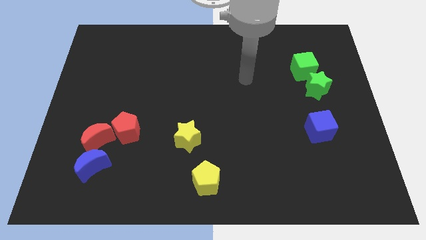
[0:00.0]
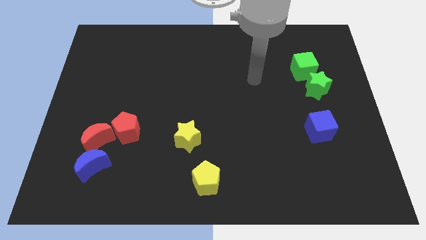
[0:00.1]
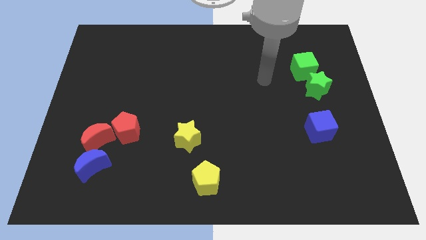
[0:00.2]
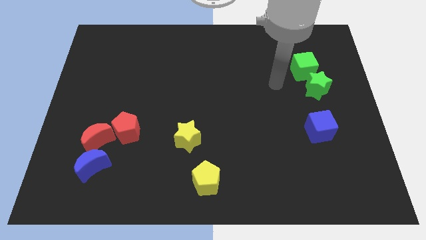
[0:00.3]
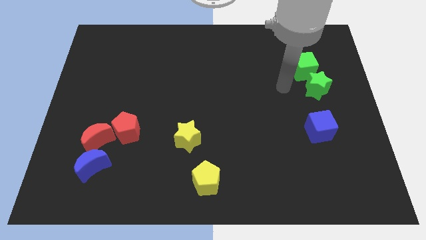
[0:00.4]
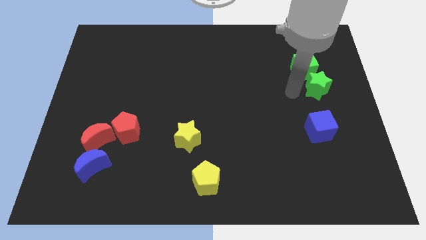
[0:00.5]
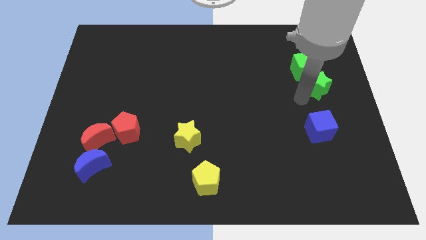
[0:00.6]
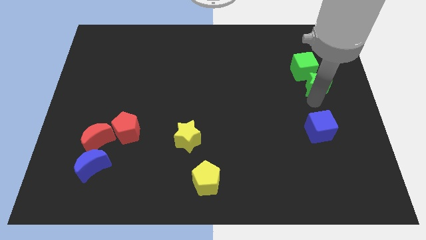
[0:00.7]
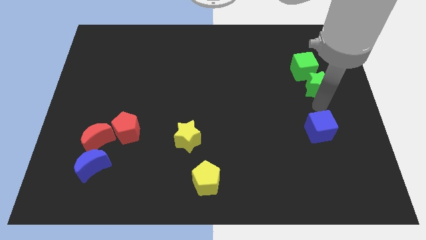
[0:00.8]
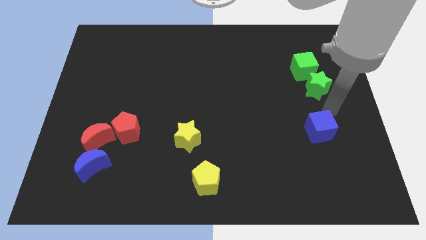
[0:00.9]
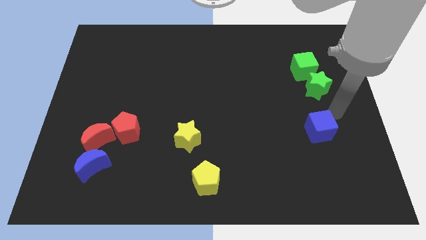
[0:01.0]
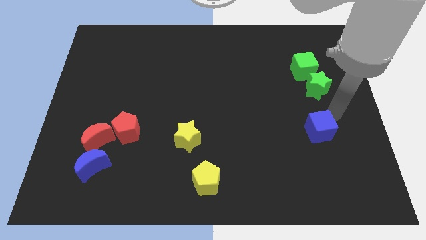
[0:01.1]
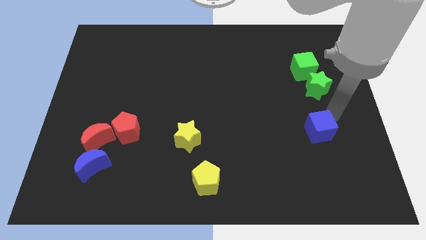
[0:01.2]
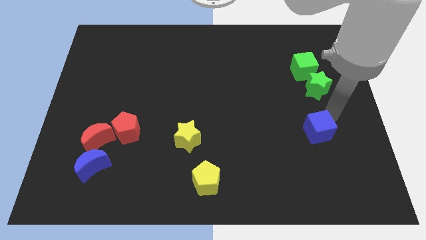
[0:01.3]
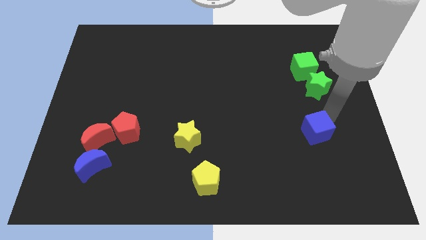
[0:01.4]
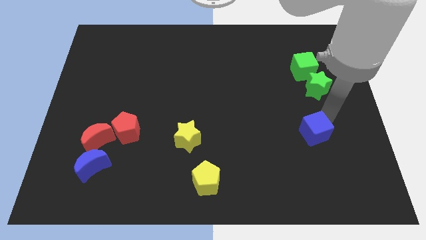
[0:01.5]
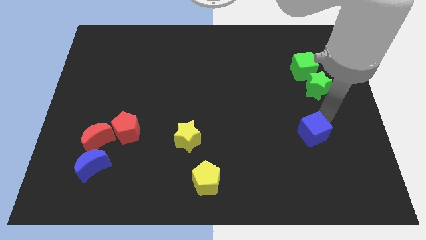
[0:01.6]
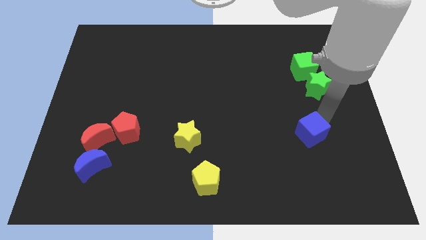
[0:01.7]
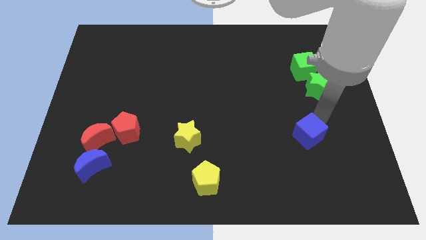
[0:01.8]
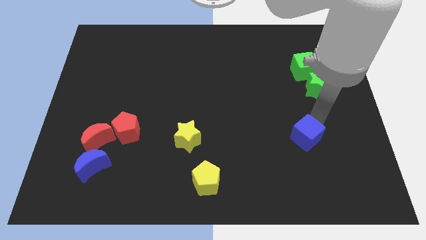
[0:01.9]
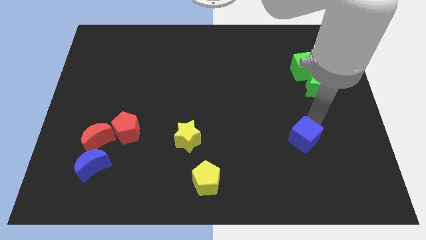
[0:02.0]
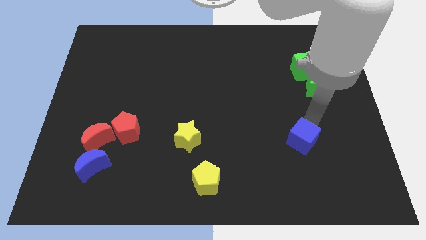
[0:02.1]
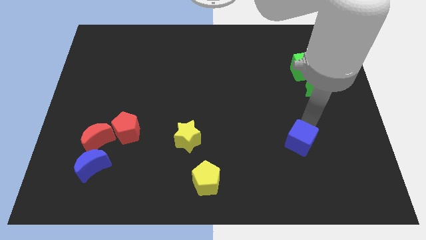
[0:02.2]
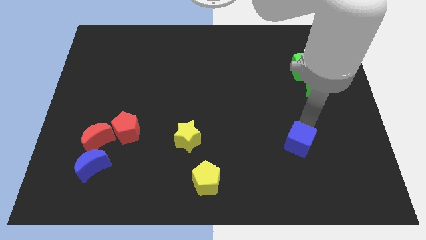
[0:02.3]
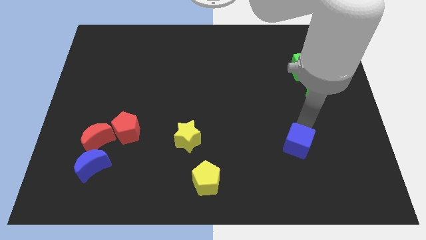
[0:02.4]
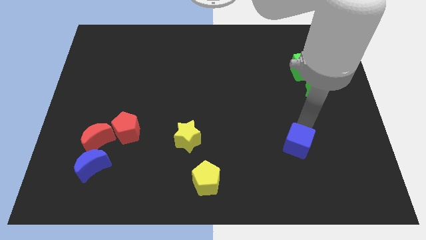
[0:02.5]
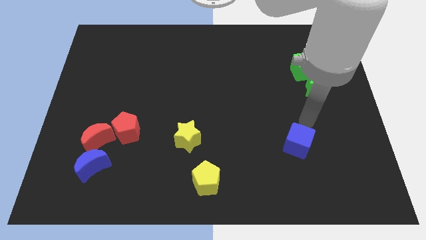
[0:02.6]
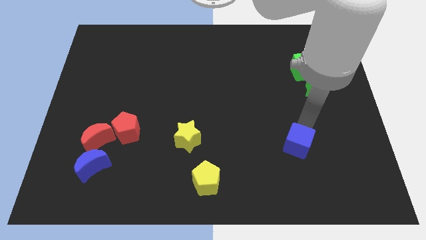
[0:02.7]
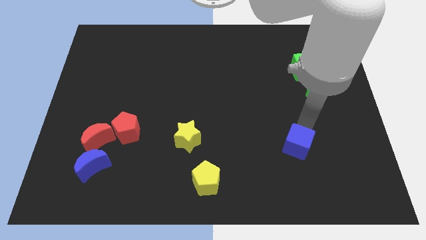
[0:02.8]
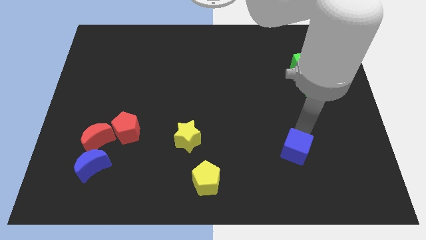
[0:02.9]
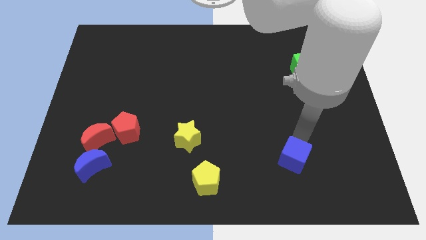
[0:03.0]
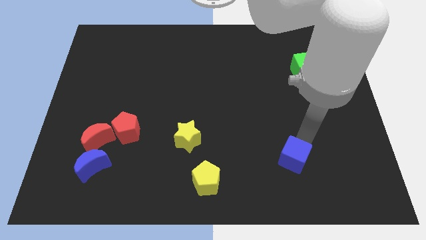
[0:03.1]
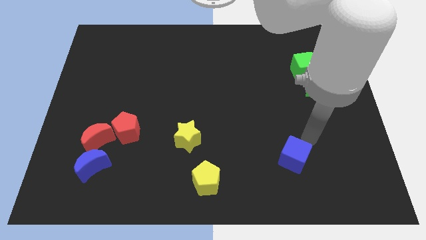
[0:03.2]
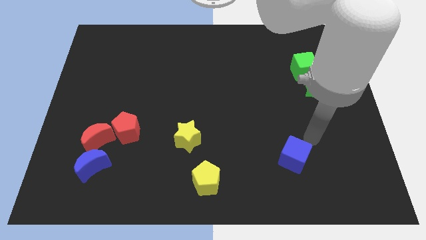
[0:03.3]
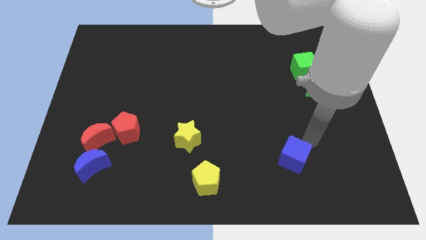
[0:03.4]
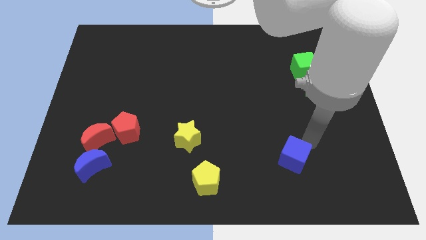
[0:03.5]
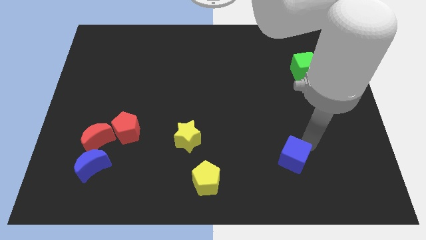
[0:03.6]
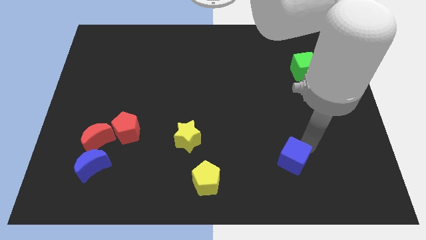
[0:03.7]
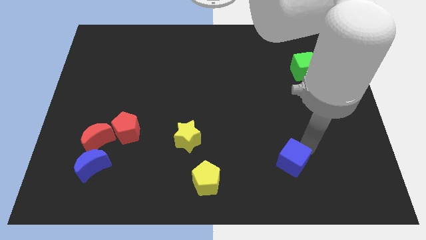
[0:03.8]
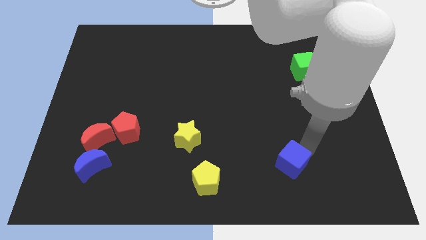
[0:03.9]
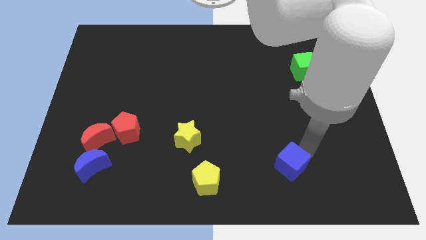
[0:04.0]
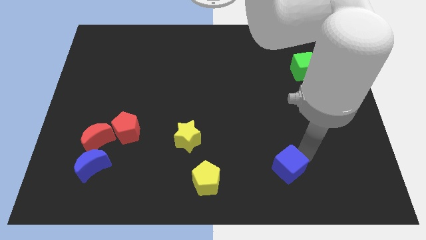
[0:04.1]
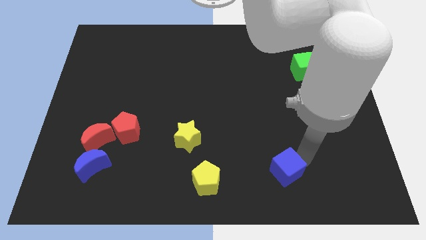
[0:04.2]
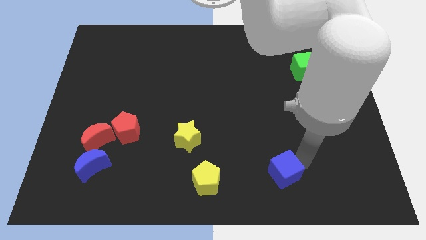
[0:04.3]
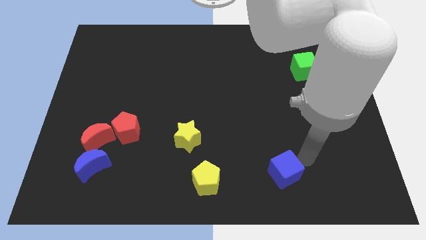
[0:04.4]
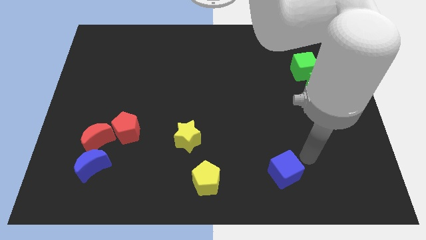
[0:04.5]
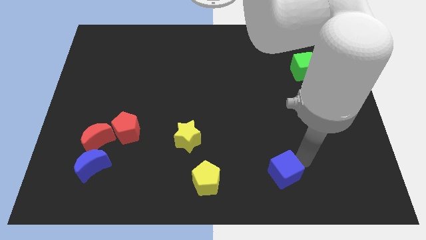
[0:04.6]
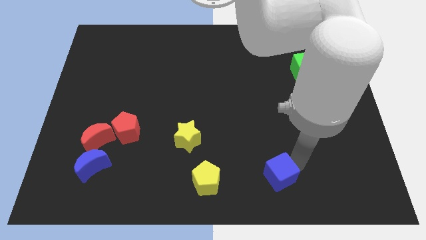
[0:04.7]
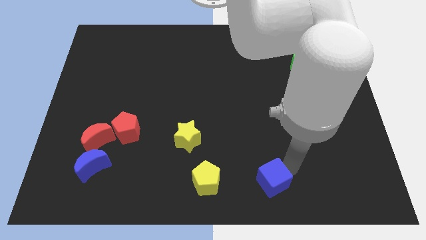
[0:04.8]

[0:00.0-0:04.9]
move the blue cube to the bottom

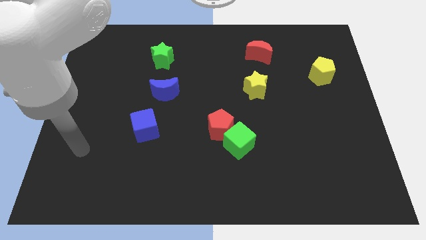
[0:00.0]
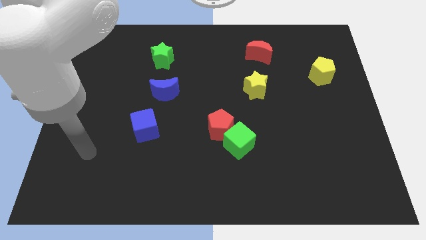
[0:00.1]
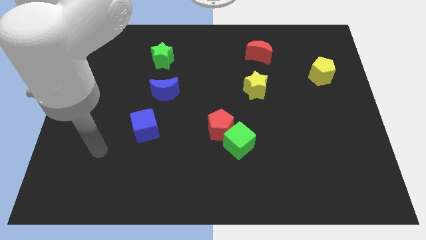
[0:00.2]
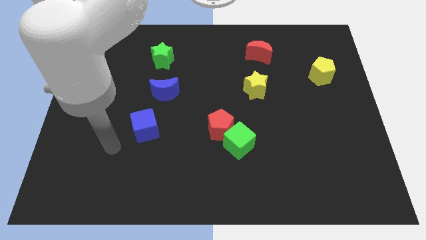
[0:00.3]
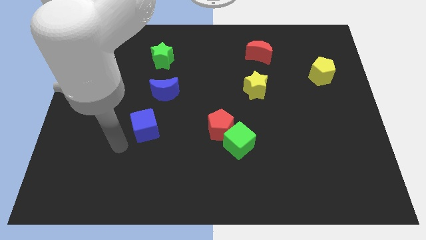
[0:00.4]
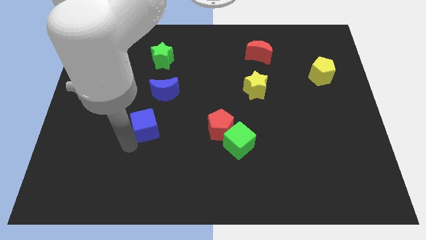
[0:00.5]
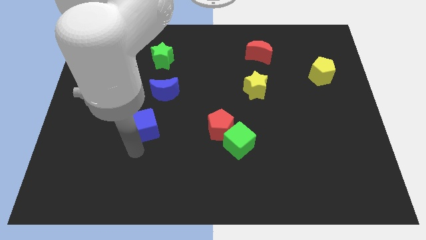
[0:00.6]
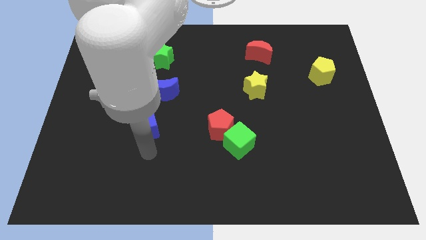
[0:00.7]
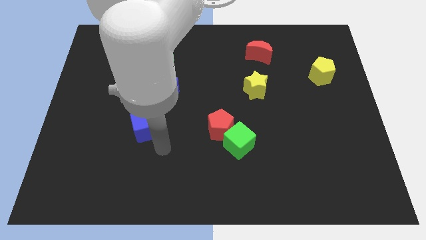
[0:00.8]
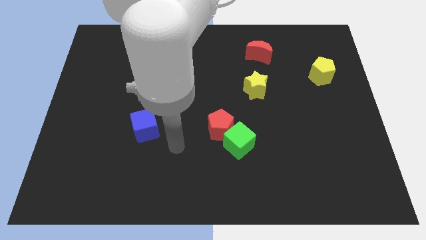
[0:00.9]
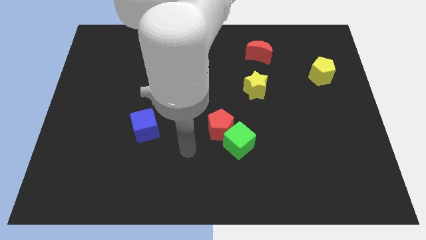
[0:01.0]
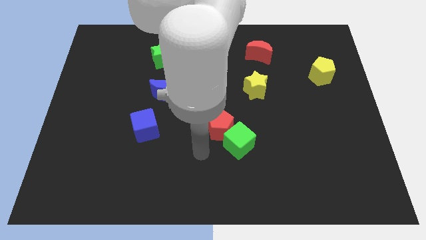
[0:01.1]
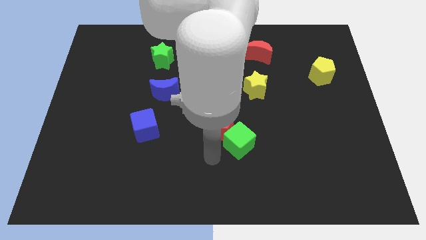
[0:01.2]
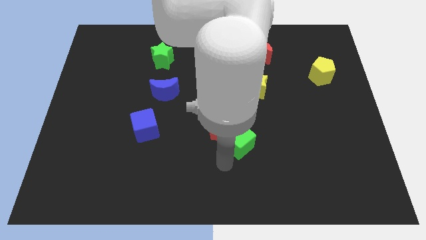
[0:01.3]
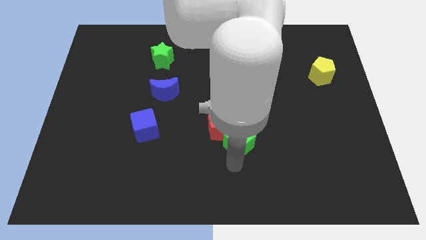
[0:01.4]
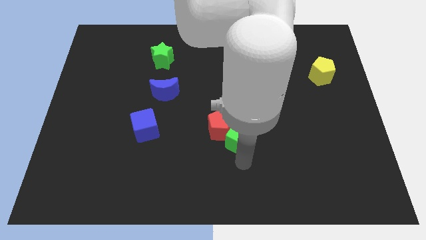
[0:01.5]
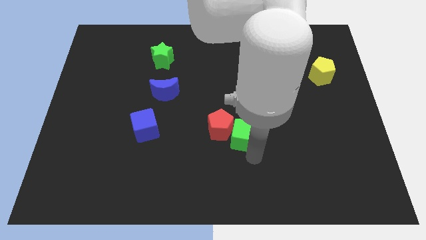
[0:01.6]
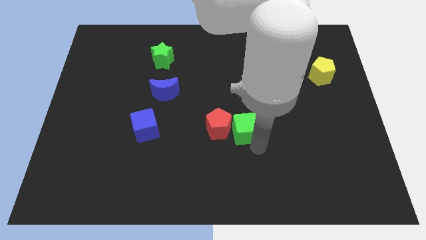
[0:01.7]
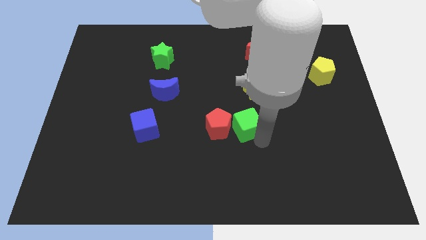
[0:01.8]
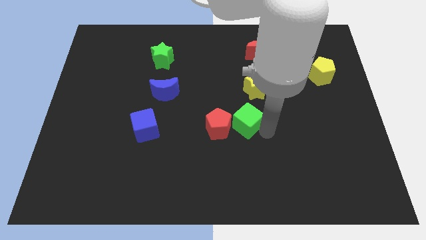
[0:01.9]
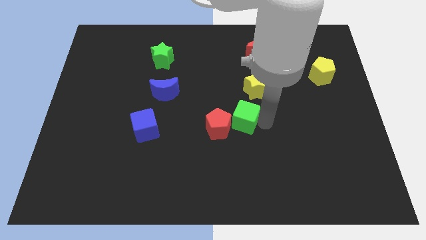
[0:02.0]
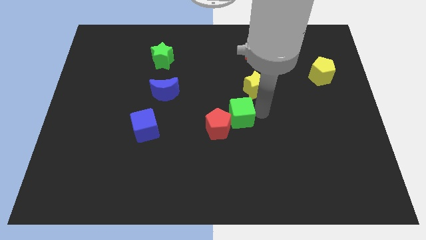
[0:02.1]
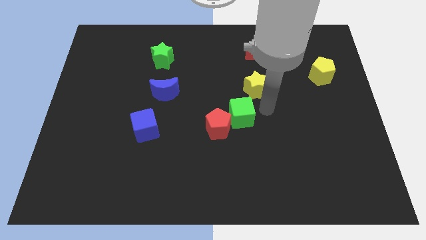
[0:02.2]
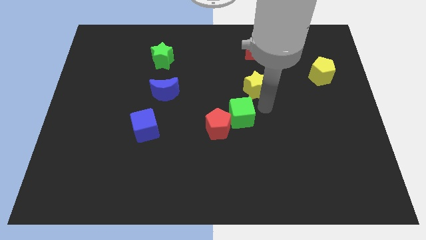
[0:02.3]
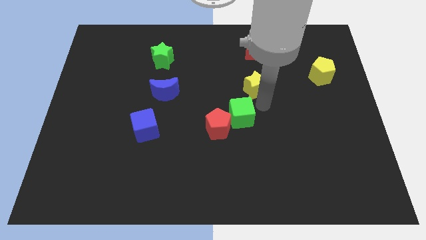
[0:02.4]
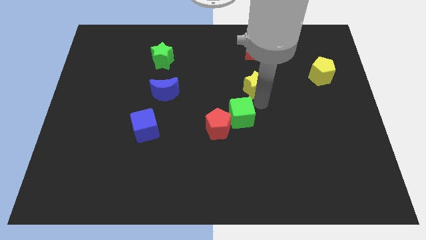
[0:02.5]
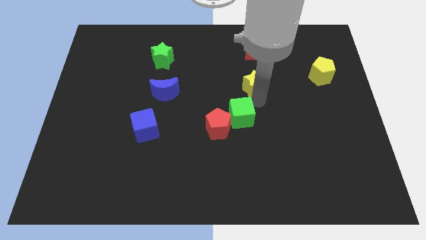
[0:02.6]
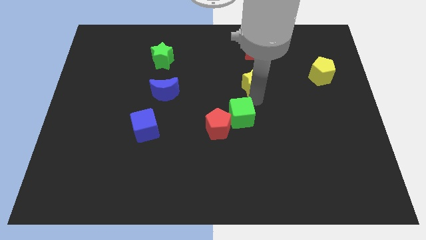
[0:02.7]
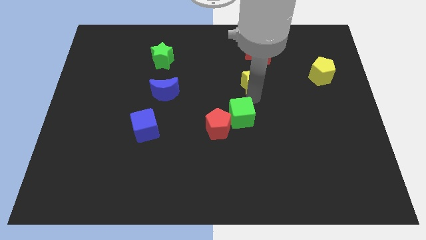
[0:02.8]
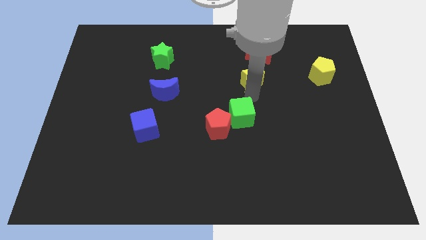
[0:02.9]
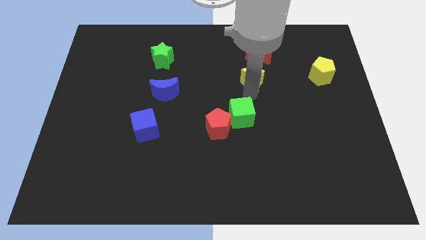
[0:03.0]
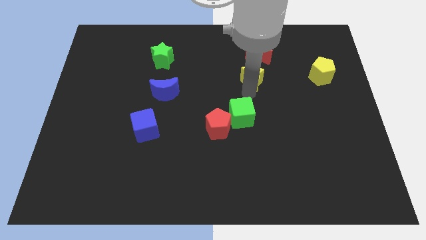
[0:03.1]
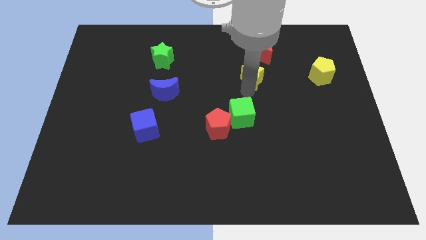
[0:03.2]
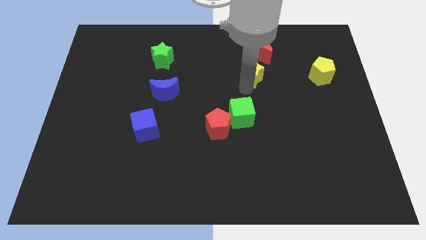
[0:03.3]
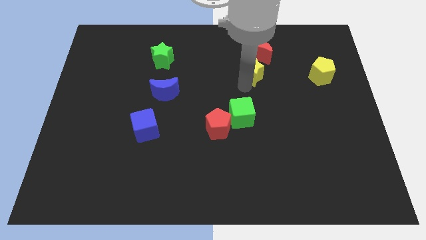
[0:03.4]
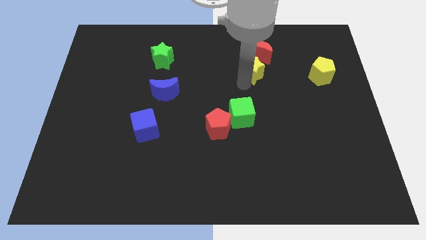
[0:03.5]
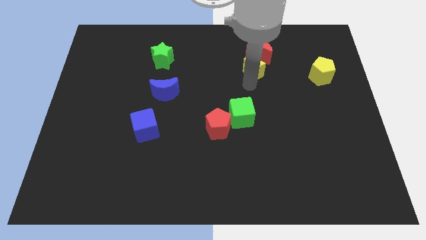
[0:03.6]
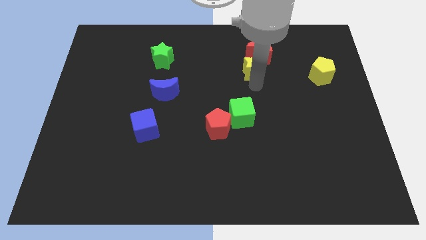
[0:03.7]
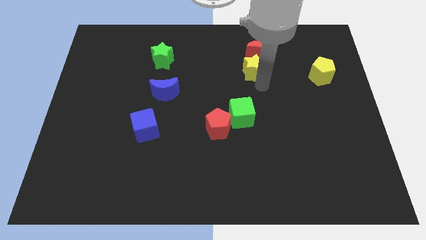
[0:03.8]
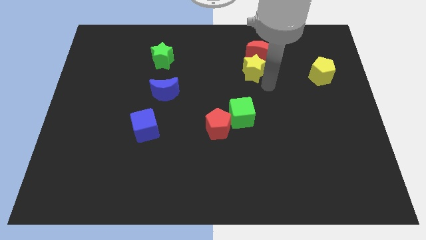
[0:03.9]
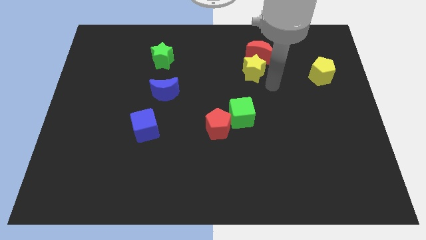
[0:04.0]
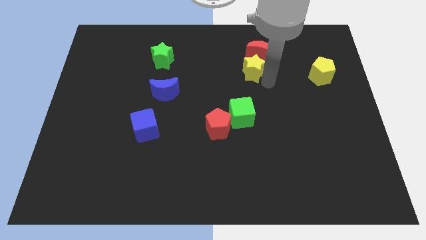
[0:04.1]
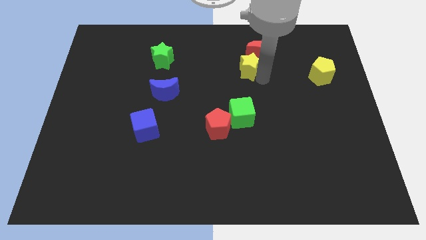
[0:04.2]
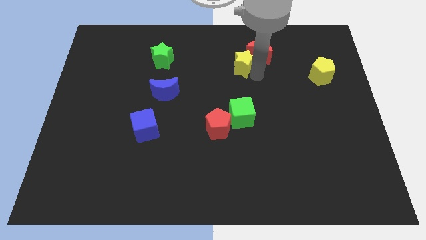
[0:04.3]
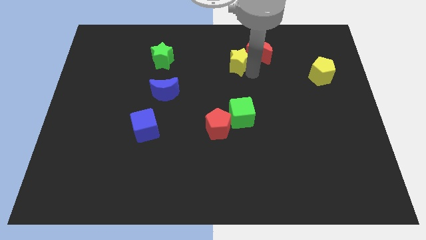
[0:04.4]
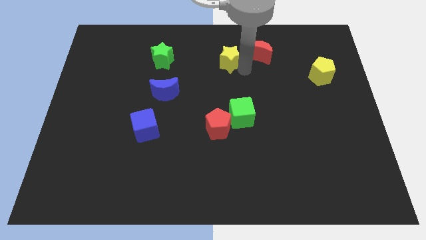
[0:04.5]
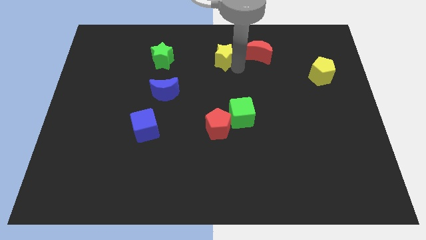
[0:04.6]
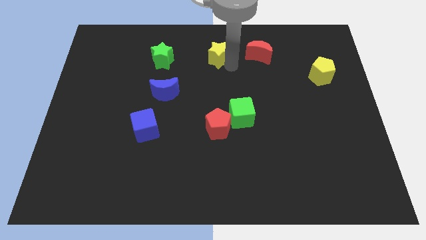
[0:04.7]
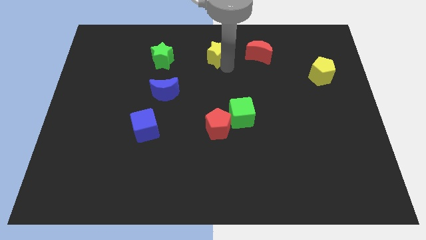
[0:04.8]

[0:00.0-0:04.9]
move the yellow star to the top
